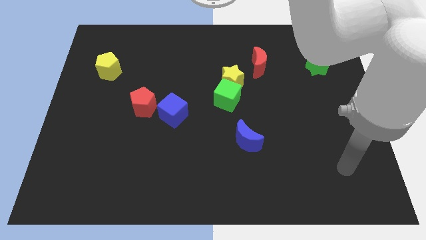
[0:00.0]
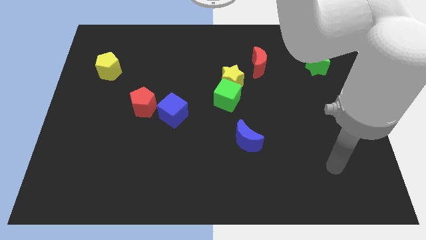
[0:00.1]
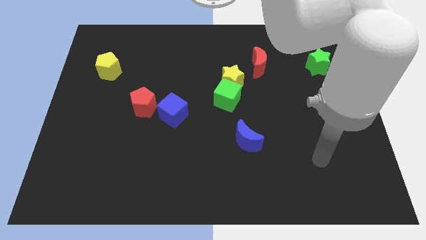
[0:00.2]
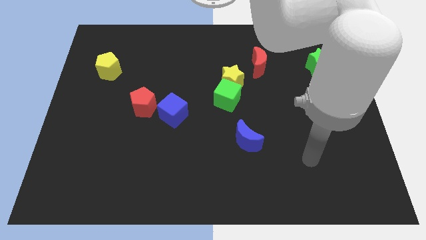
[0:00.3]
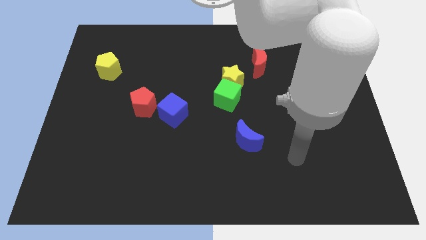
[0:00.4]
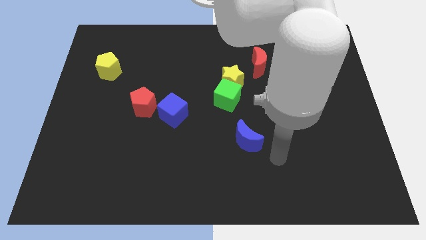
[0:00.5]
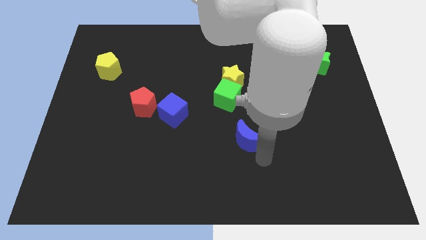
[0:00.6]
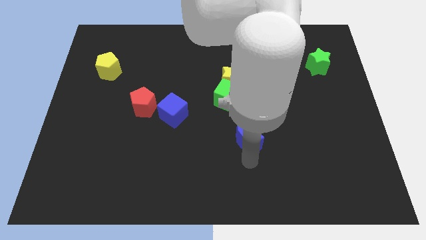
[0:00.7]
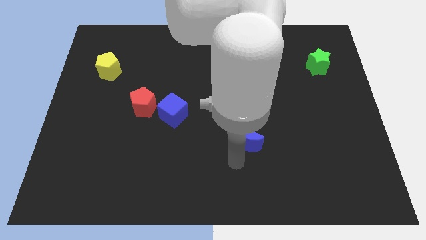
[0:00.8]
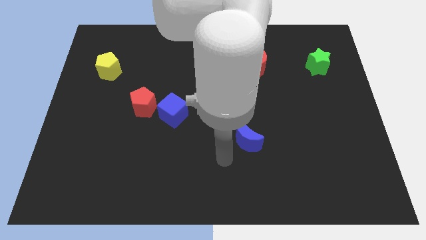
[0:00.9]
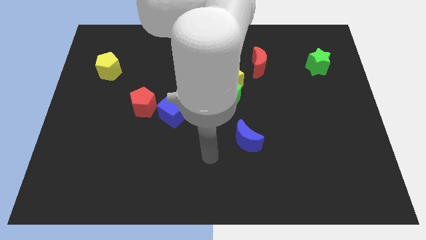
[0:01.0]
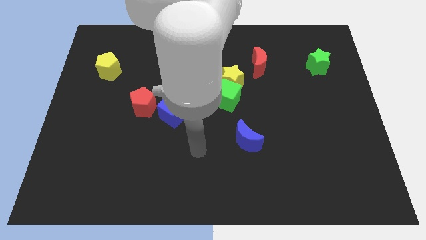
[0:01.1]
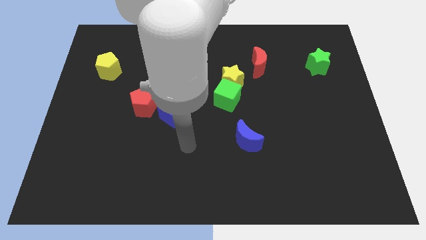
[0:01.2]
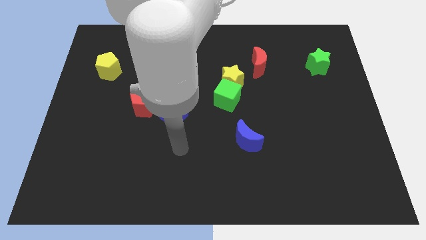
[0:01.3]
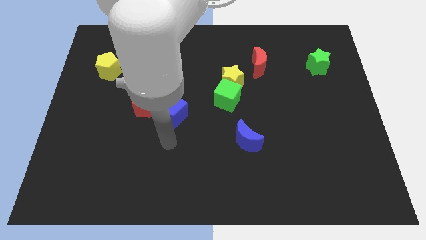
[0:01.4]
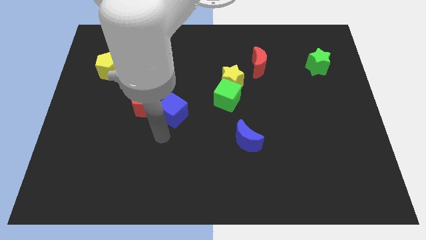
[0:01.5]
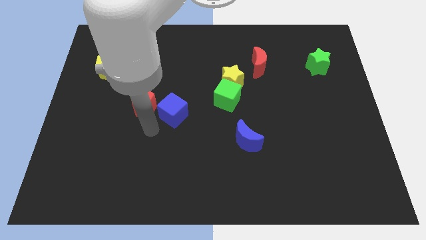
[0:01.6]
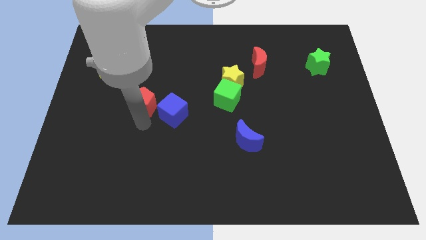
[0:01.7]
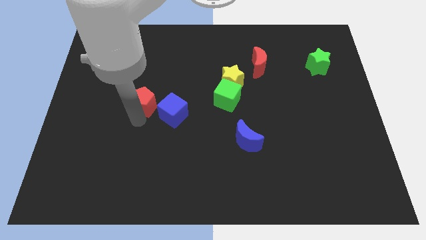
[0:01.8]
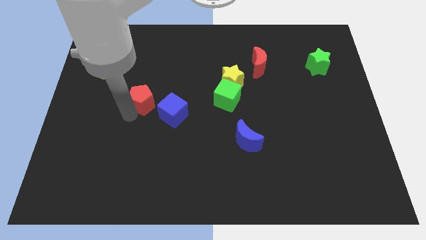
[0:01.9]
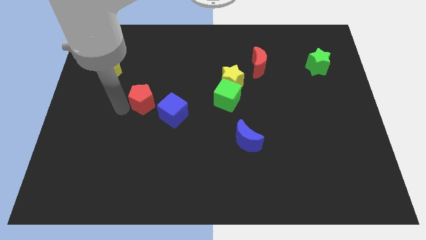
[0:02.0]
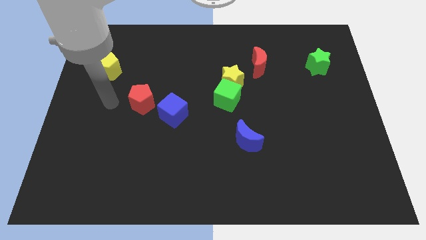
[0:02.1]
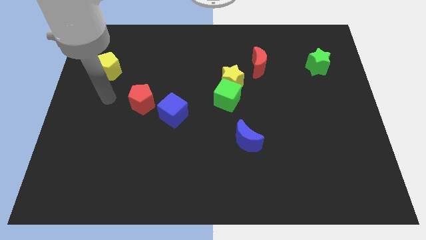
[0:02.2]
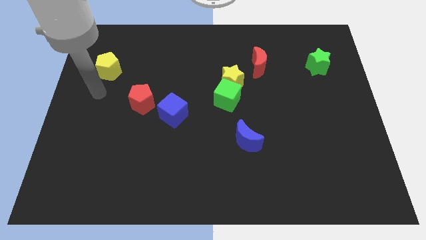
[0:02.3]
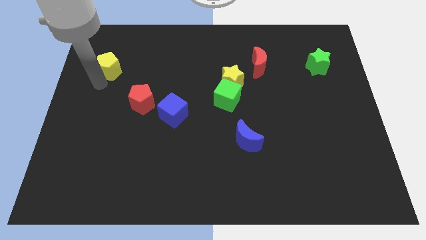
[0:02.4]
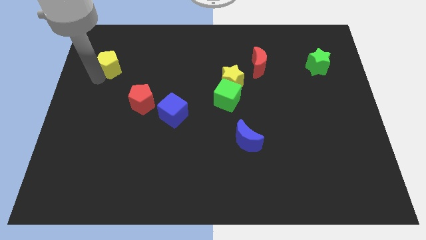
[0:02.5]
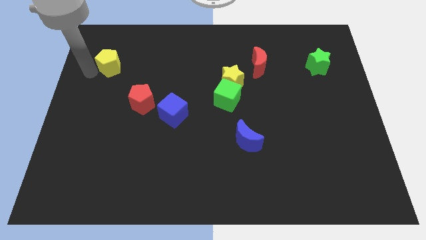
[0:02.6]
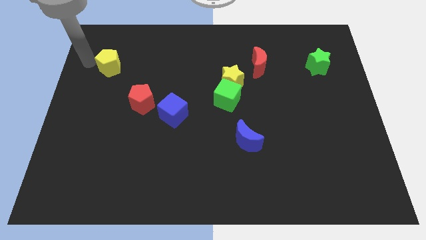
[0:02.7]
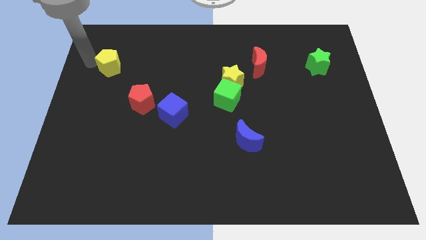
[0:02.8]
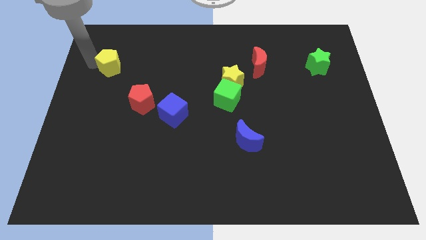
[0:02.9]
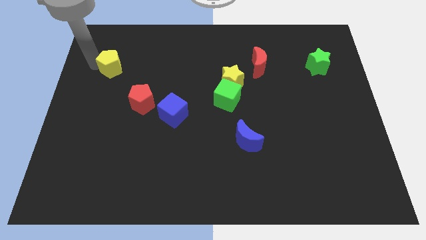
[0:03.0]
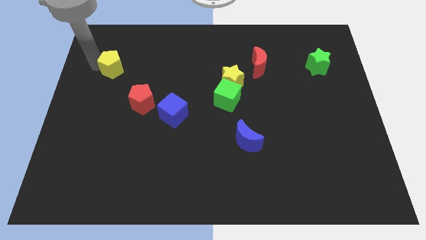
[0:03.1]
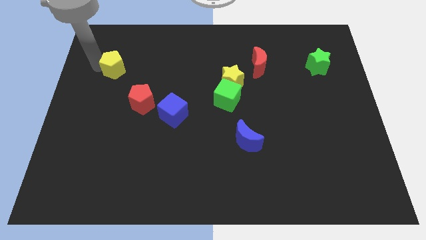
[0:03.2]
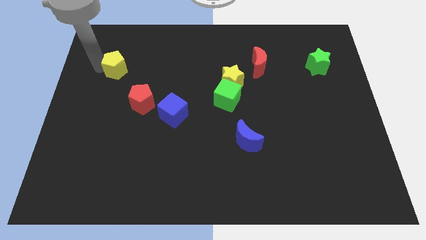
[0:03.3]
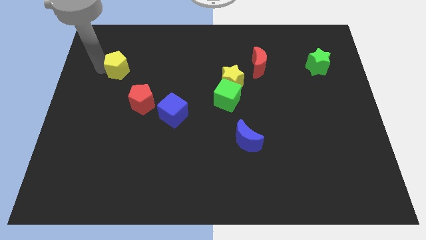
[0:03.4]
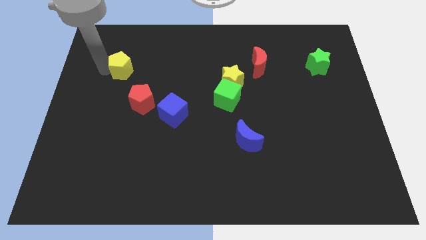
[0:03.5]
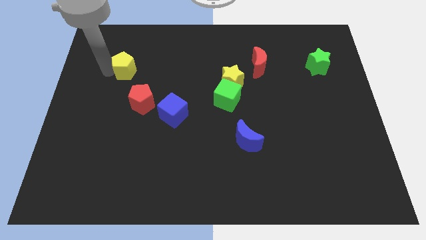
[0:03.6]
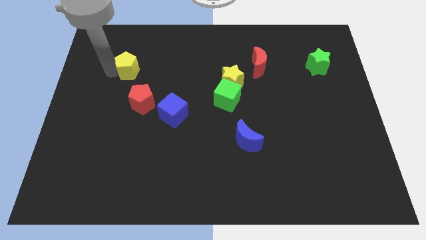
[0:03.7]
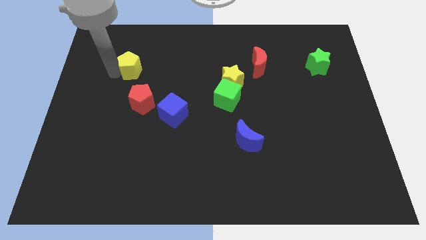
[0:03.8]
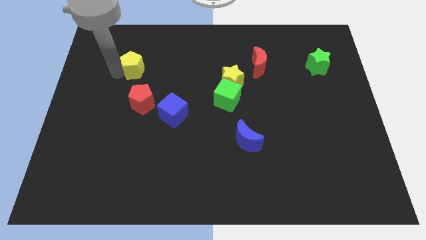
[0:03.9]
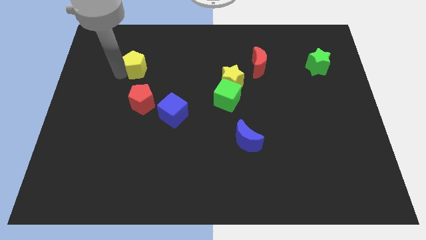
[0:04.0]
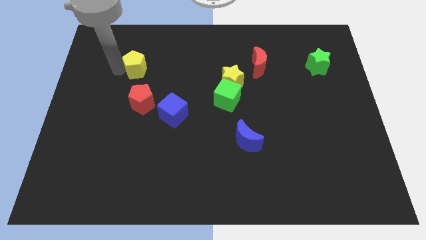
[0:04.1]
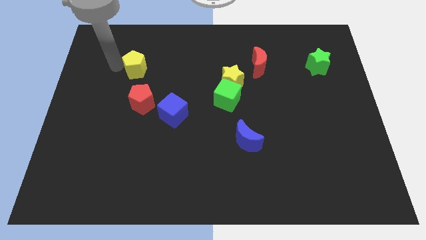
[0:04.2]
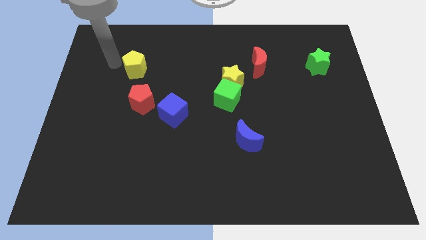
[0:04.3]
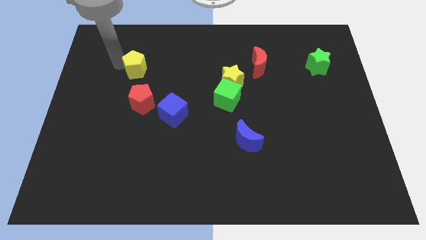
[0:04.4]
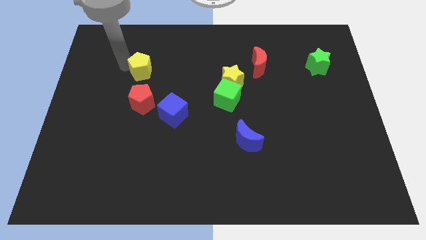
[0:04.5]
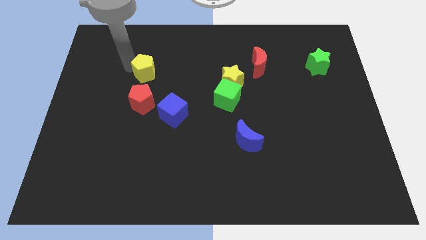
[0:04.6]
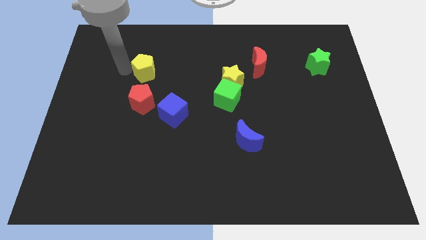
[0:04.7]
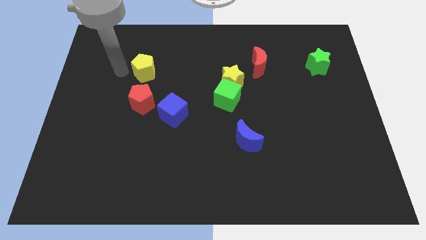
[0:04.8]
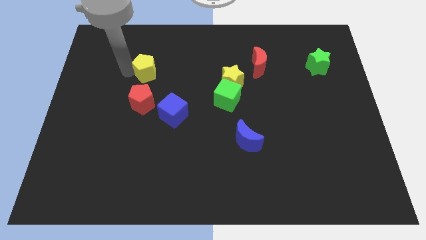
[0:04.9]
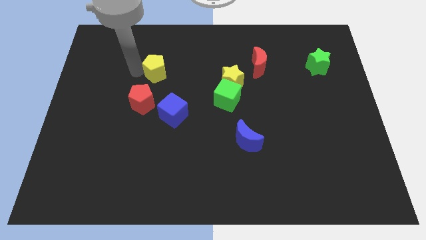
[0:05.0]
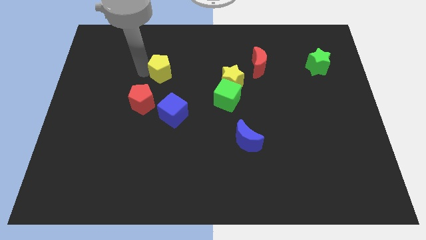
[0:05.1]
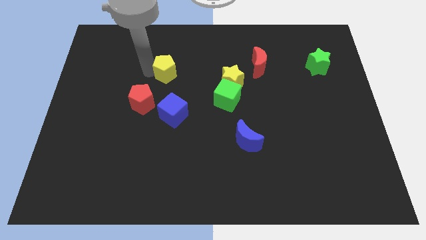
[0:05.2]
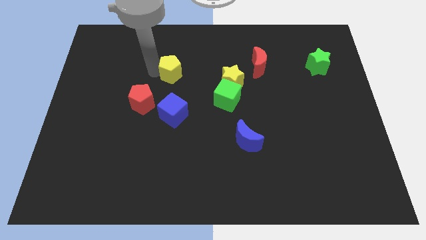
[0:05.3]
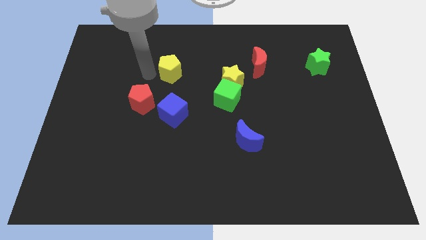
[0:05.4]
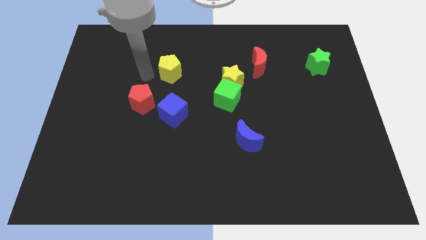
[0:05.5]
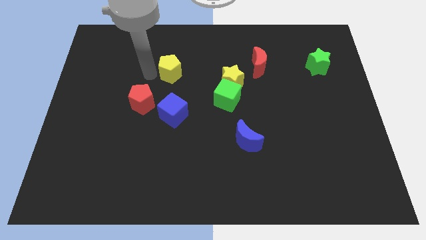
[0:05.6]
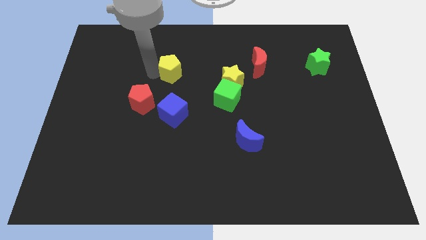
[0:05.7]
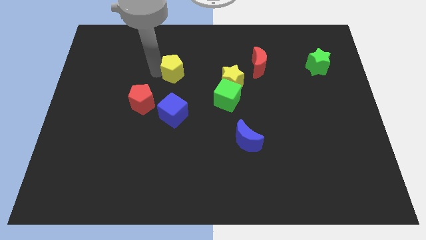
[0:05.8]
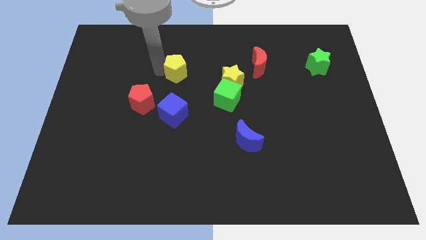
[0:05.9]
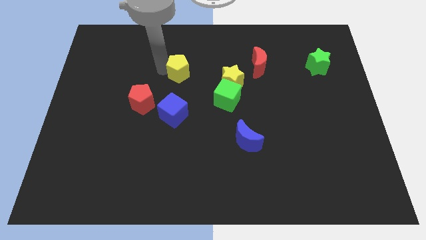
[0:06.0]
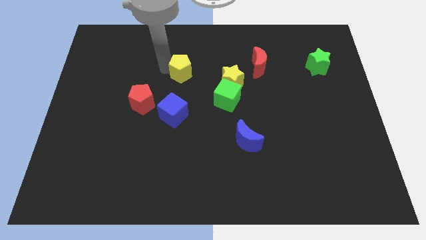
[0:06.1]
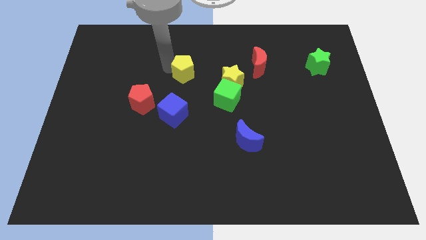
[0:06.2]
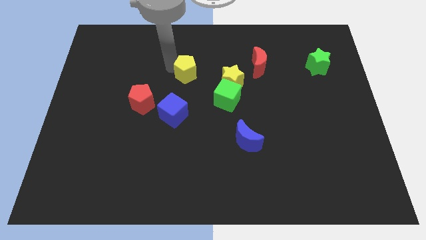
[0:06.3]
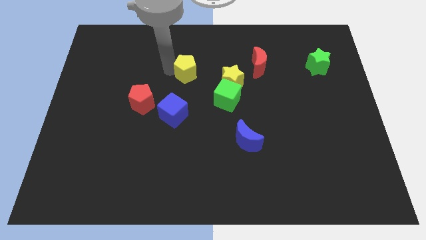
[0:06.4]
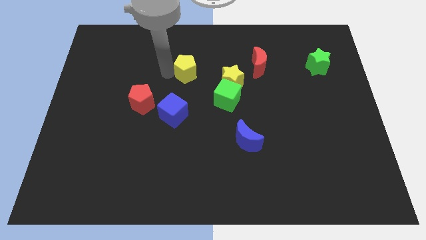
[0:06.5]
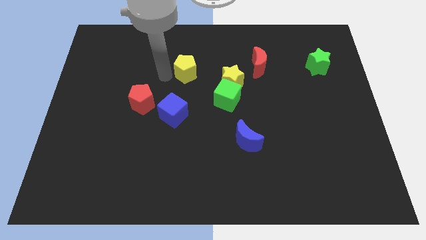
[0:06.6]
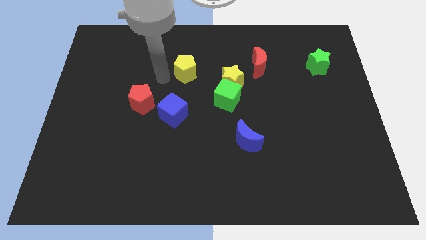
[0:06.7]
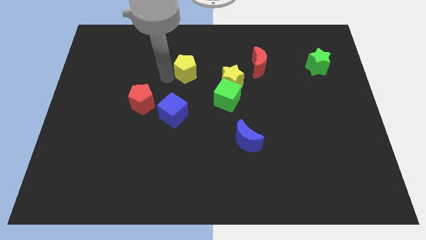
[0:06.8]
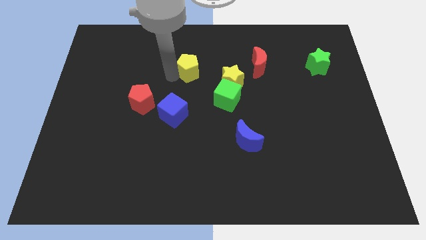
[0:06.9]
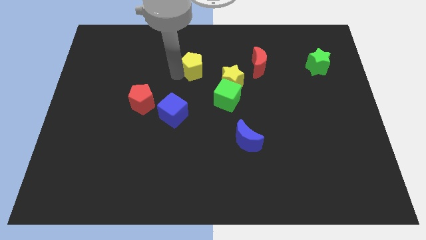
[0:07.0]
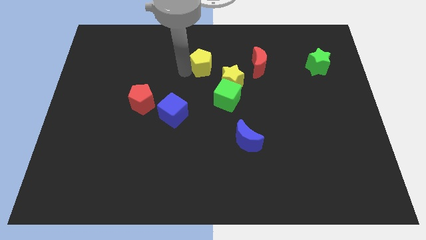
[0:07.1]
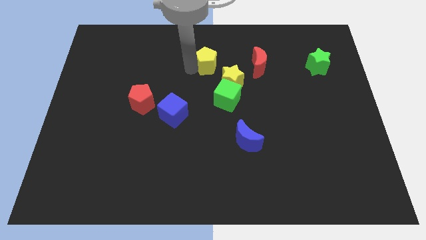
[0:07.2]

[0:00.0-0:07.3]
put the yellow pentagon to the top side of the green cube
